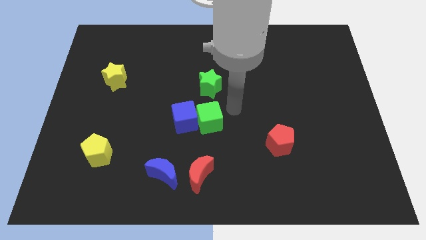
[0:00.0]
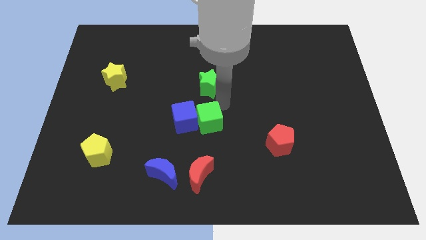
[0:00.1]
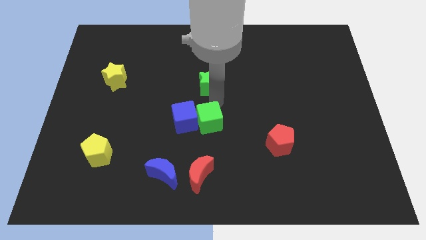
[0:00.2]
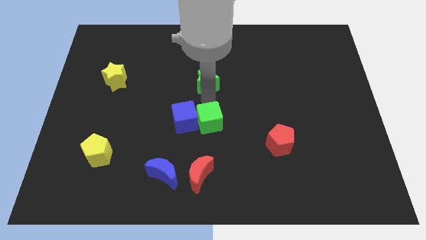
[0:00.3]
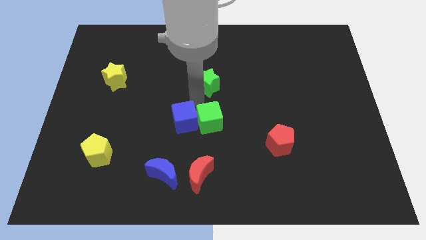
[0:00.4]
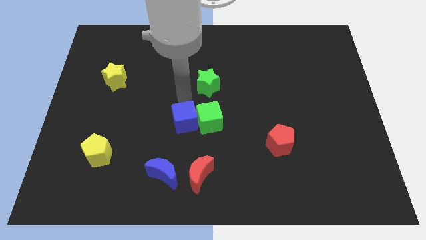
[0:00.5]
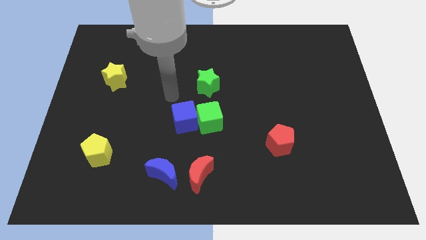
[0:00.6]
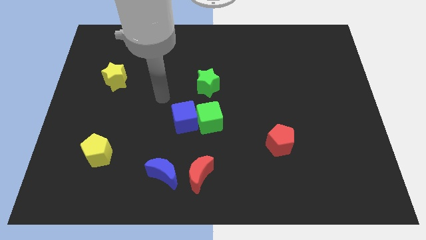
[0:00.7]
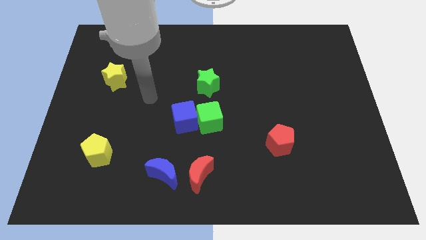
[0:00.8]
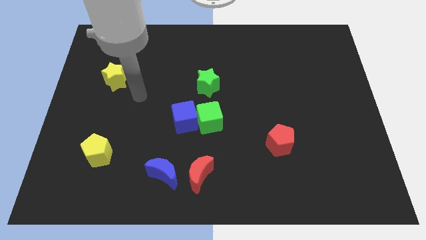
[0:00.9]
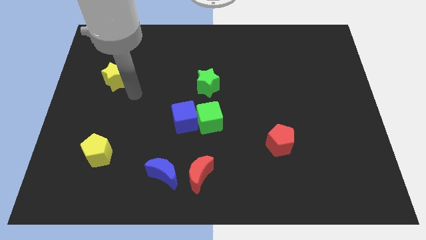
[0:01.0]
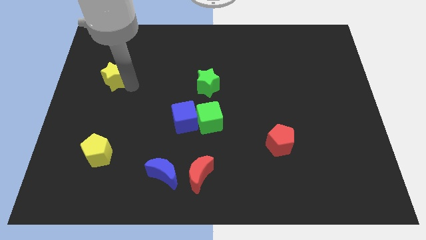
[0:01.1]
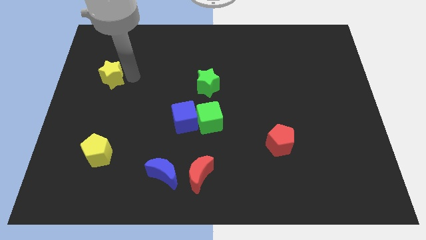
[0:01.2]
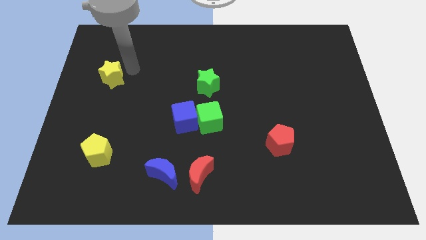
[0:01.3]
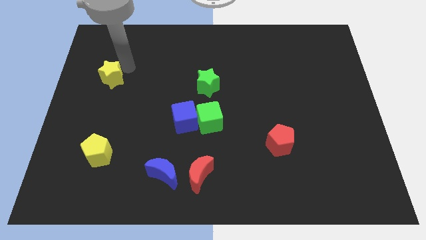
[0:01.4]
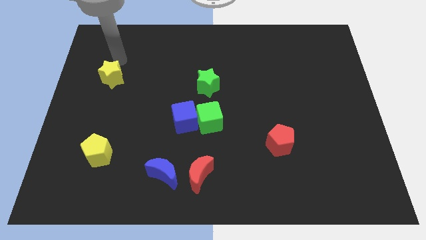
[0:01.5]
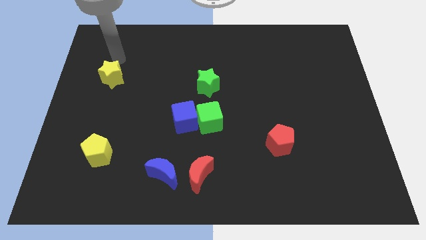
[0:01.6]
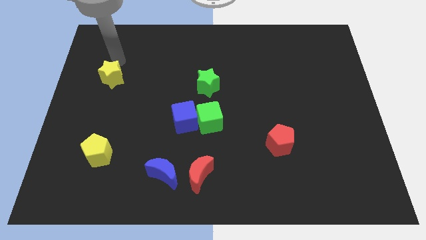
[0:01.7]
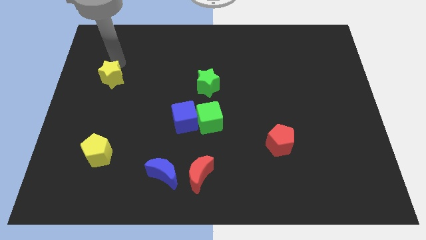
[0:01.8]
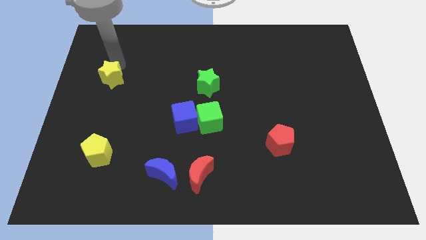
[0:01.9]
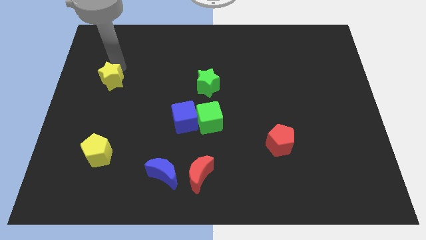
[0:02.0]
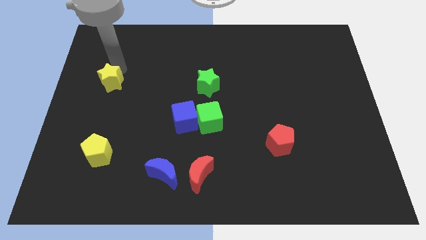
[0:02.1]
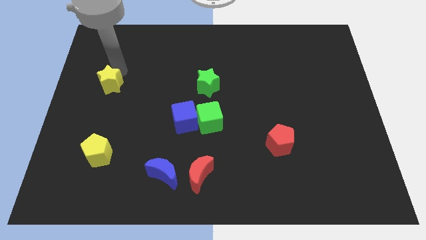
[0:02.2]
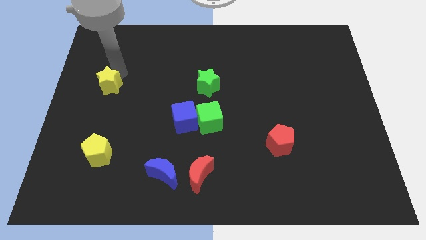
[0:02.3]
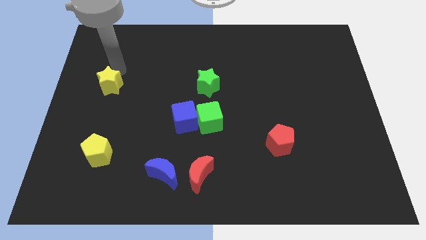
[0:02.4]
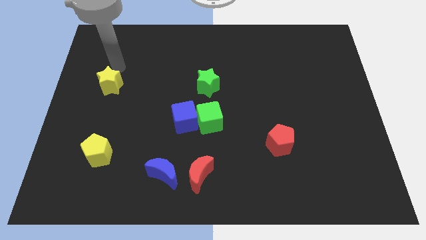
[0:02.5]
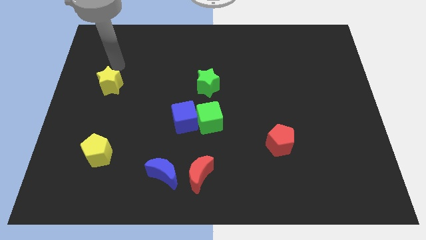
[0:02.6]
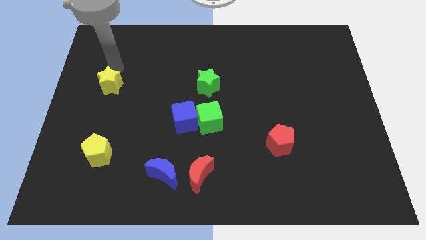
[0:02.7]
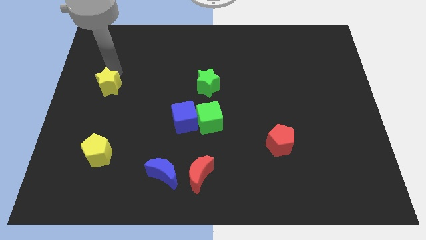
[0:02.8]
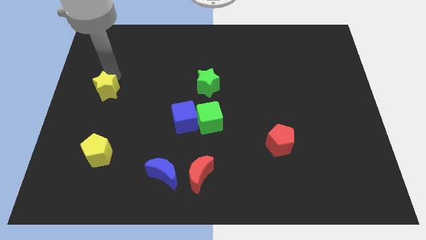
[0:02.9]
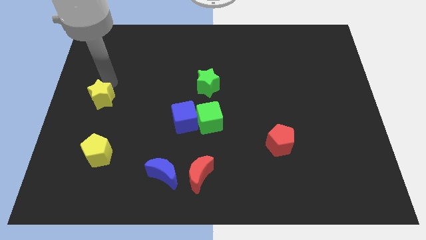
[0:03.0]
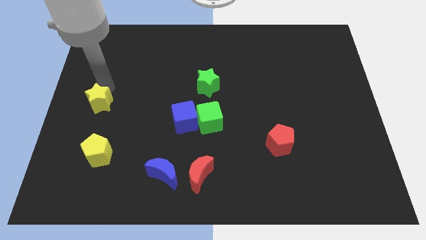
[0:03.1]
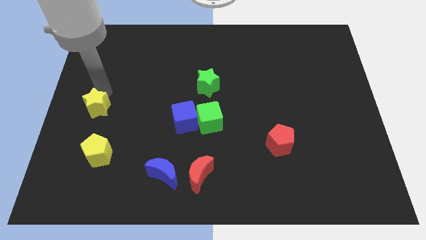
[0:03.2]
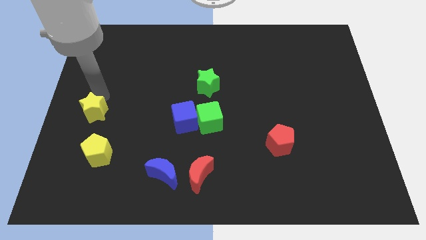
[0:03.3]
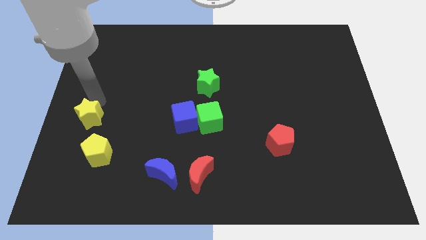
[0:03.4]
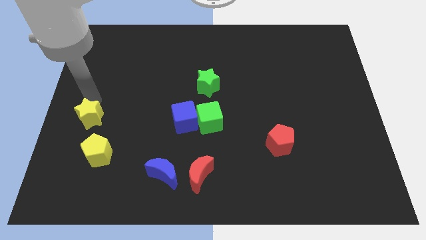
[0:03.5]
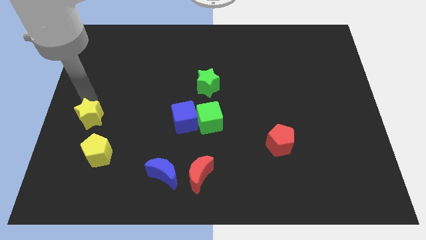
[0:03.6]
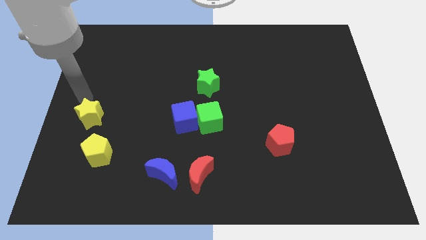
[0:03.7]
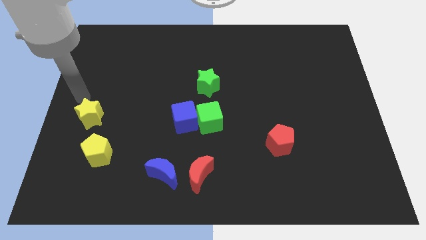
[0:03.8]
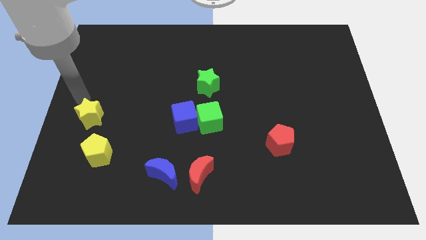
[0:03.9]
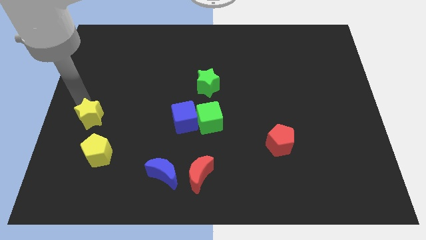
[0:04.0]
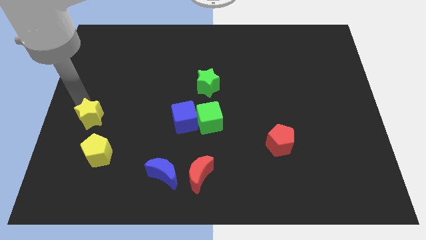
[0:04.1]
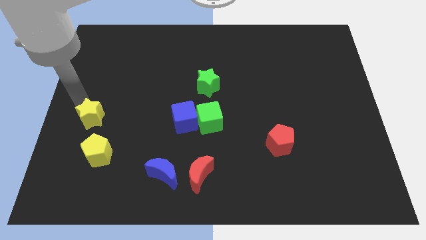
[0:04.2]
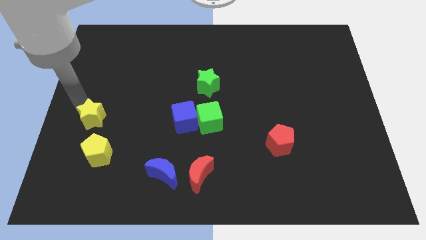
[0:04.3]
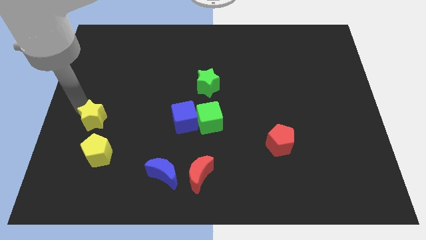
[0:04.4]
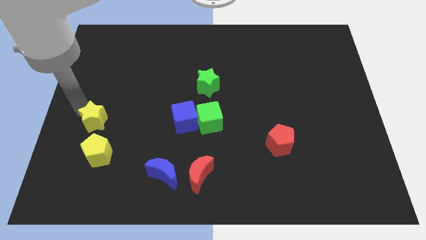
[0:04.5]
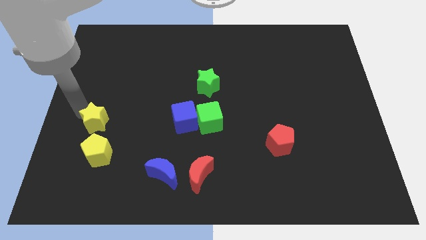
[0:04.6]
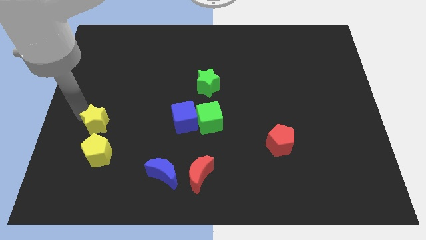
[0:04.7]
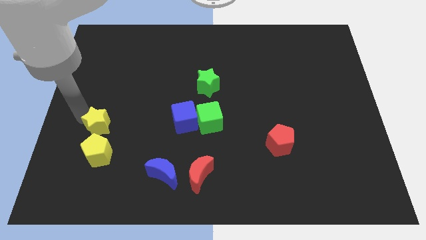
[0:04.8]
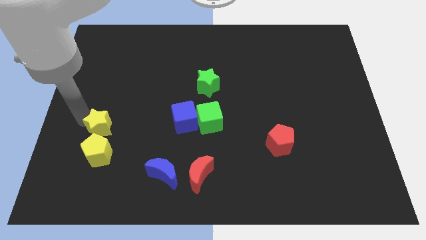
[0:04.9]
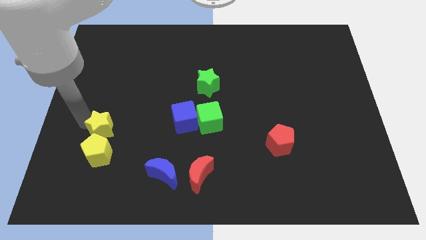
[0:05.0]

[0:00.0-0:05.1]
push the yellow star next to the yellow pentagon

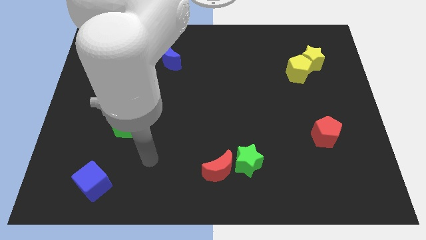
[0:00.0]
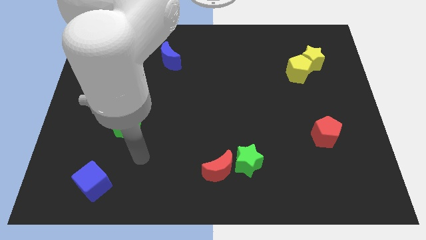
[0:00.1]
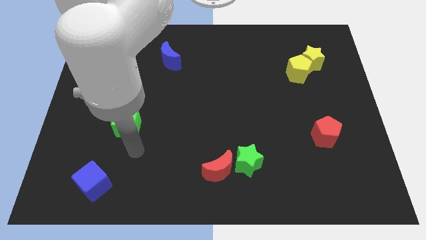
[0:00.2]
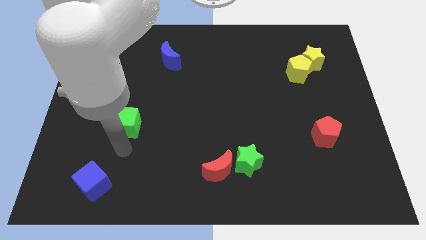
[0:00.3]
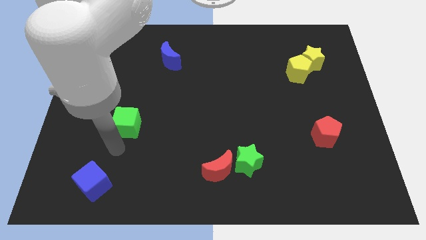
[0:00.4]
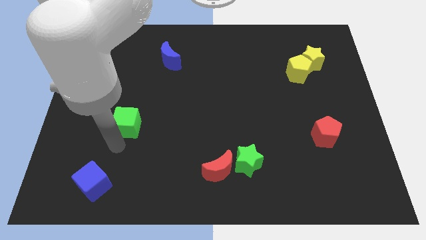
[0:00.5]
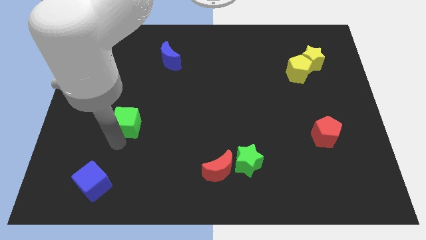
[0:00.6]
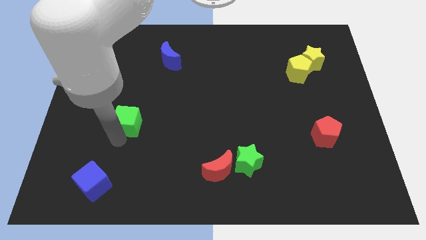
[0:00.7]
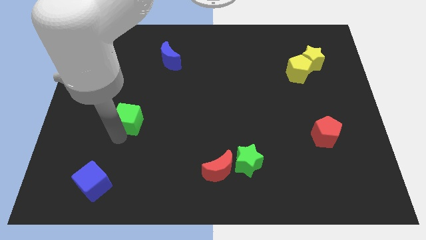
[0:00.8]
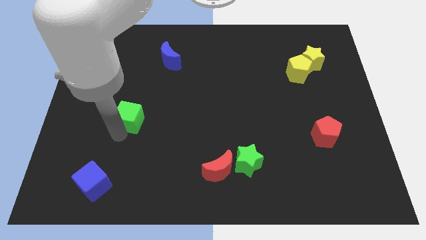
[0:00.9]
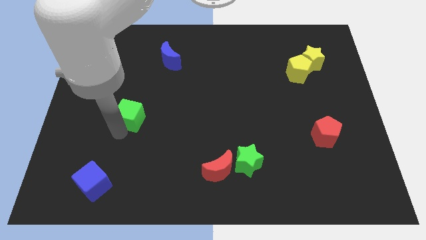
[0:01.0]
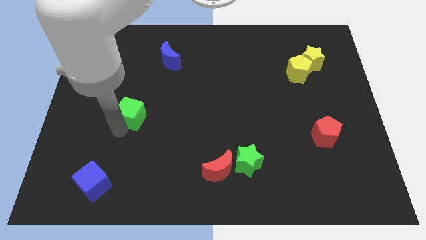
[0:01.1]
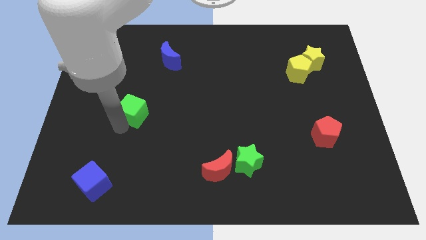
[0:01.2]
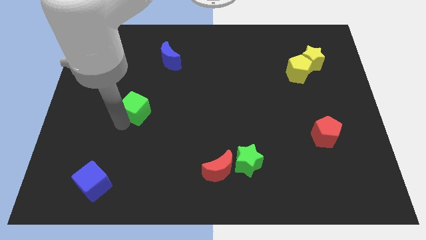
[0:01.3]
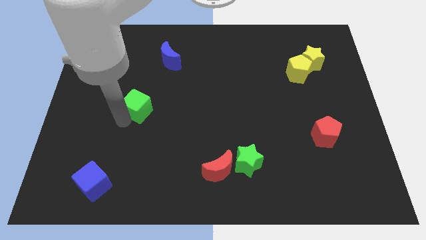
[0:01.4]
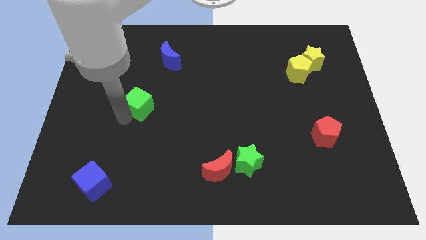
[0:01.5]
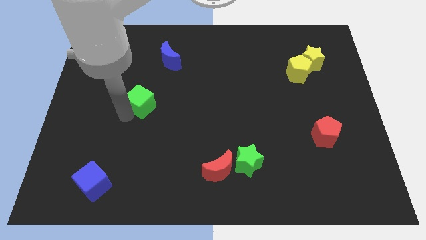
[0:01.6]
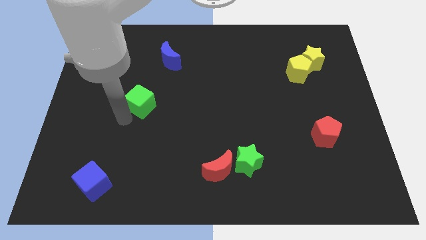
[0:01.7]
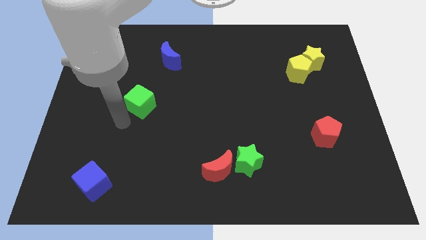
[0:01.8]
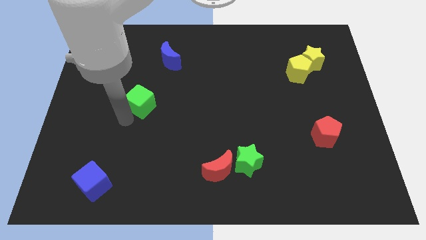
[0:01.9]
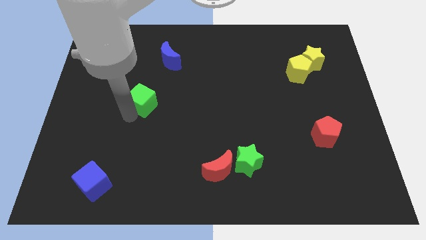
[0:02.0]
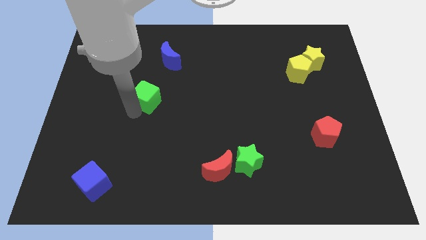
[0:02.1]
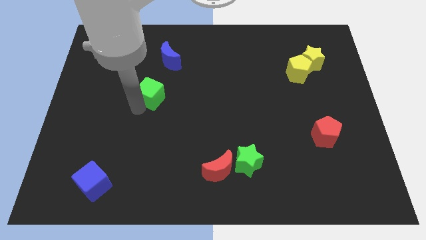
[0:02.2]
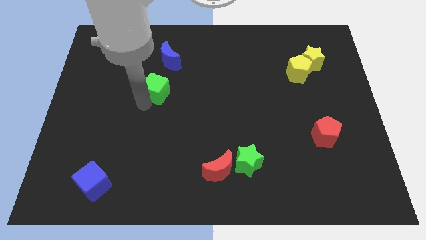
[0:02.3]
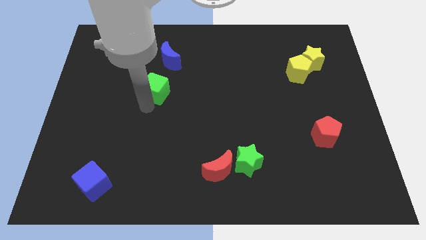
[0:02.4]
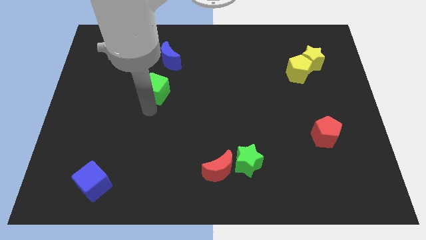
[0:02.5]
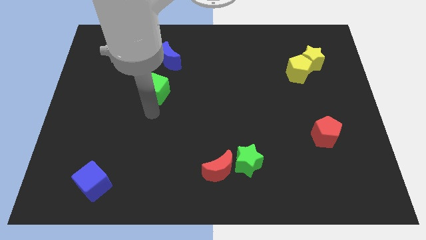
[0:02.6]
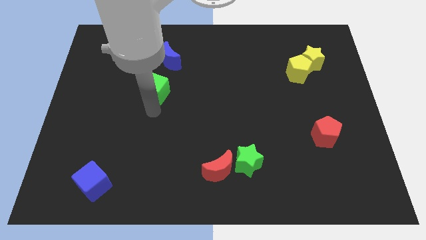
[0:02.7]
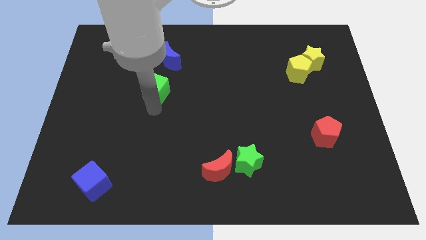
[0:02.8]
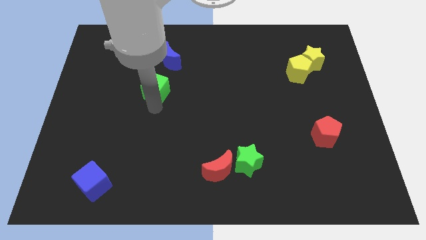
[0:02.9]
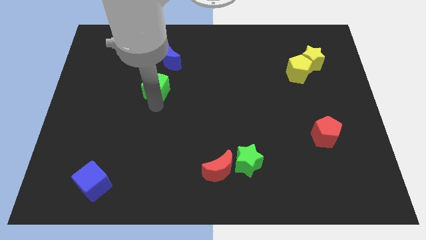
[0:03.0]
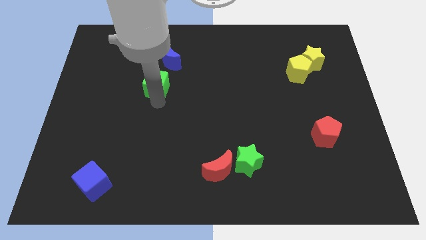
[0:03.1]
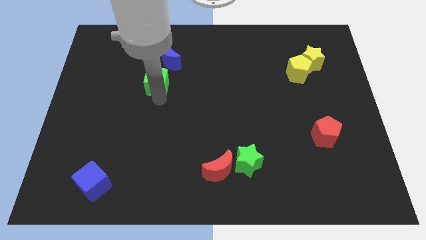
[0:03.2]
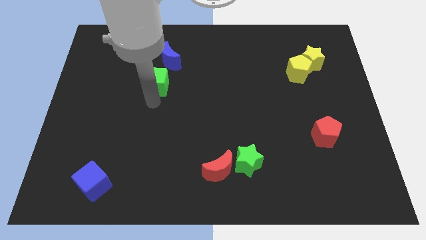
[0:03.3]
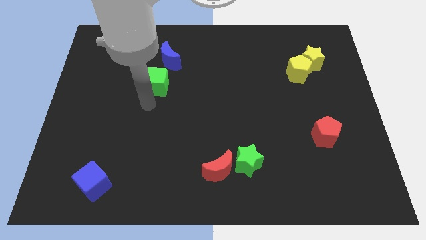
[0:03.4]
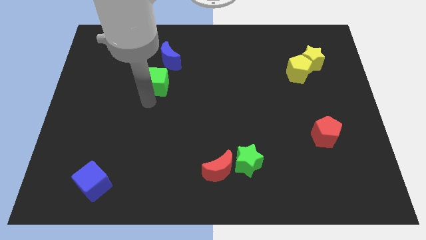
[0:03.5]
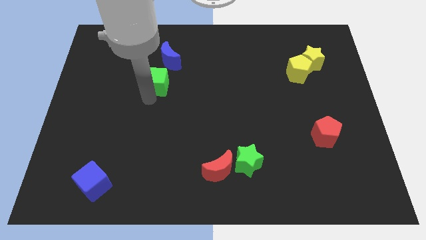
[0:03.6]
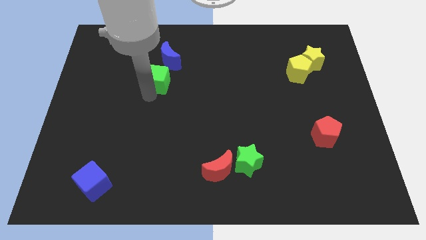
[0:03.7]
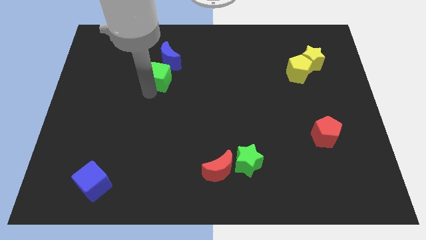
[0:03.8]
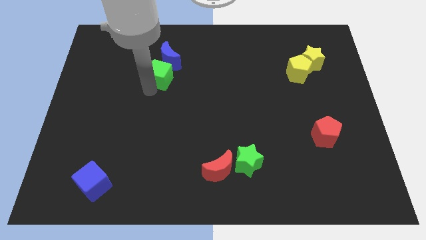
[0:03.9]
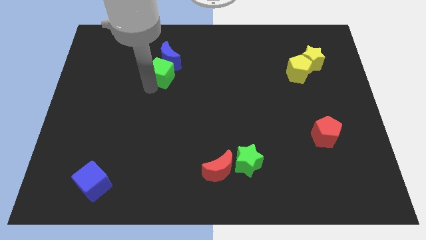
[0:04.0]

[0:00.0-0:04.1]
move the green cube next to the blue moon
